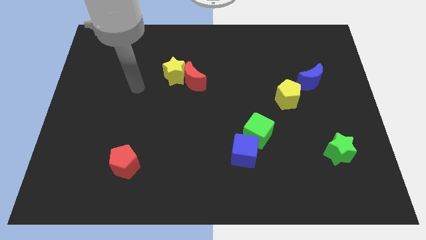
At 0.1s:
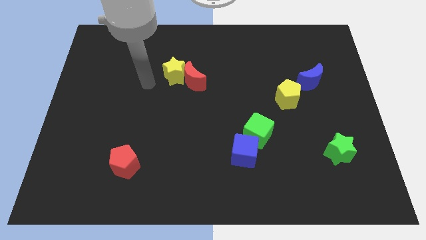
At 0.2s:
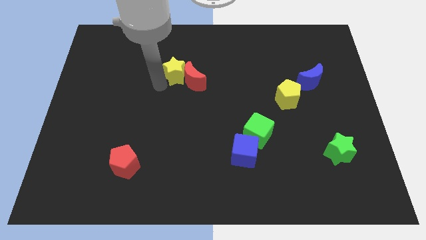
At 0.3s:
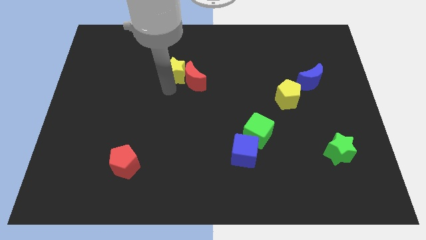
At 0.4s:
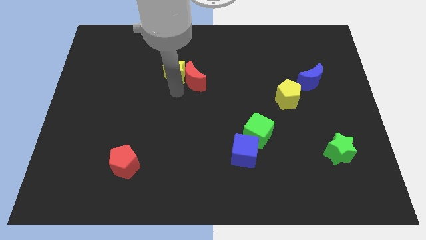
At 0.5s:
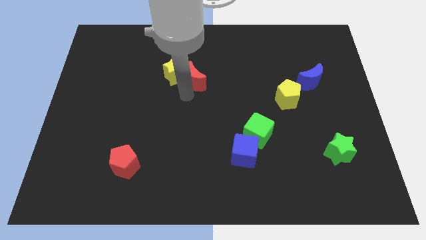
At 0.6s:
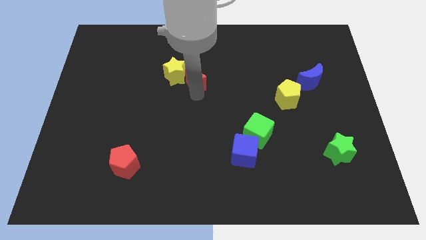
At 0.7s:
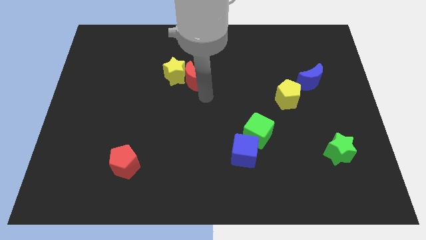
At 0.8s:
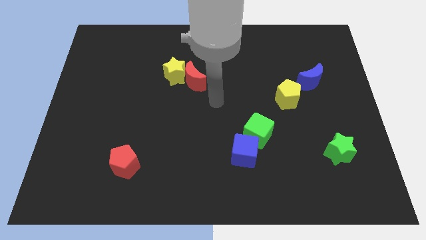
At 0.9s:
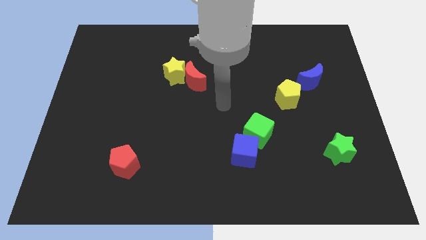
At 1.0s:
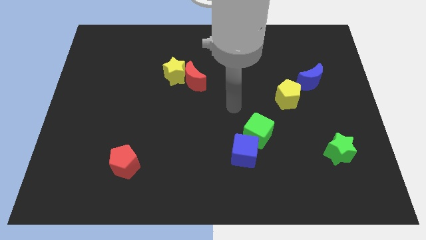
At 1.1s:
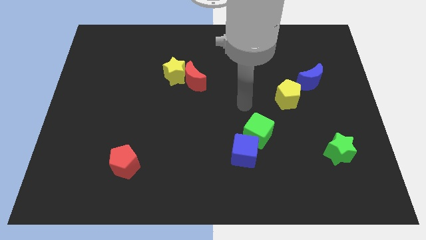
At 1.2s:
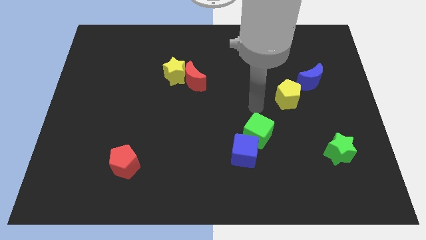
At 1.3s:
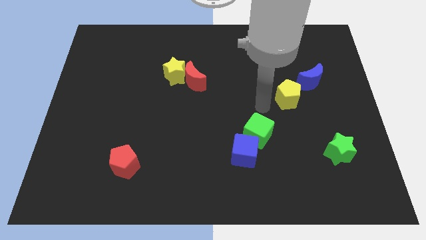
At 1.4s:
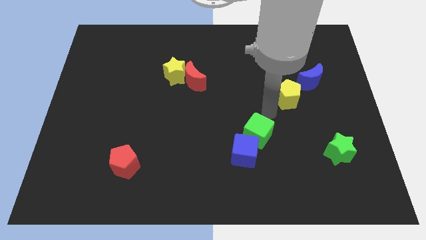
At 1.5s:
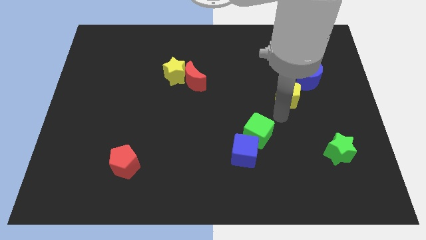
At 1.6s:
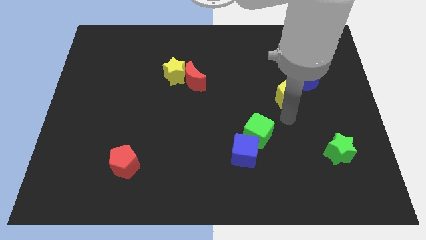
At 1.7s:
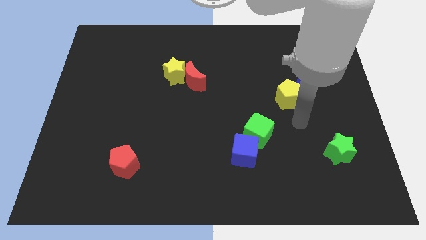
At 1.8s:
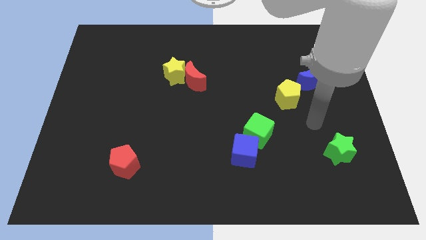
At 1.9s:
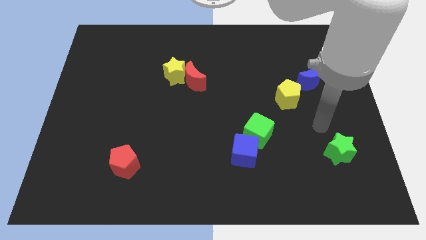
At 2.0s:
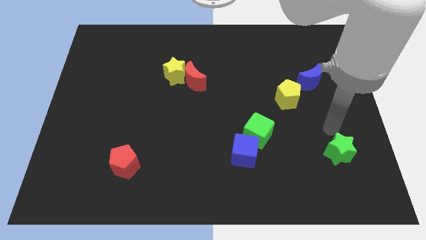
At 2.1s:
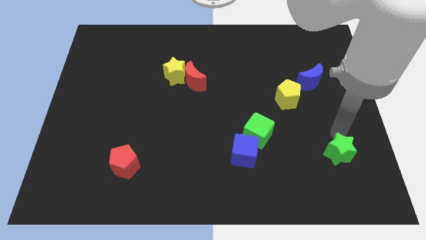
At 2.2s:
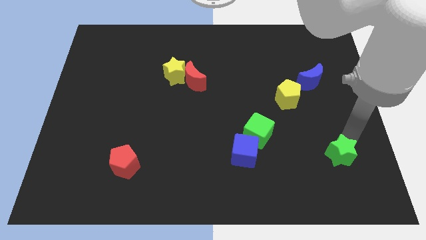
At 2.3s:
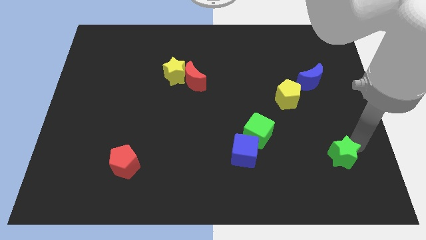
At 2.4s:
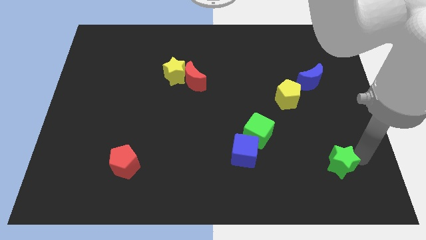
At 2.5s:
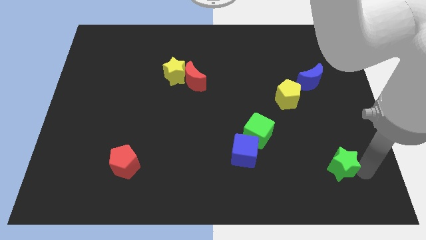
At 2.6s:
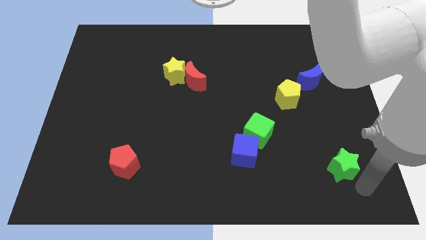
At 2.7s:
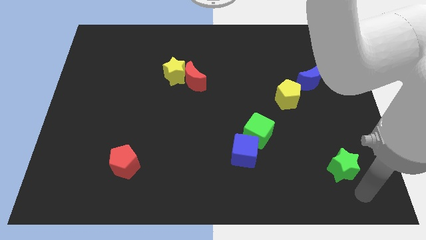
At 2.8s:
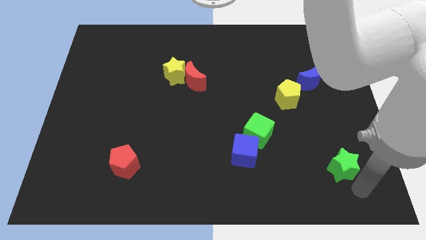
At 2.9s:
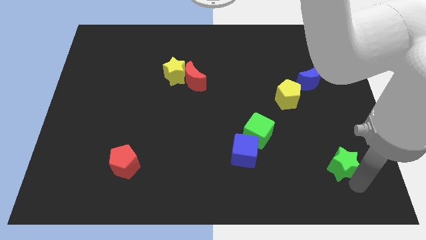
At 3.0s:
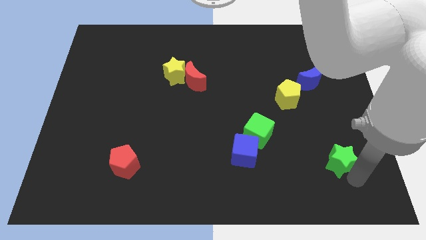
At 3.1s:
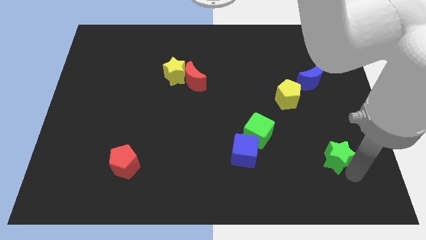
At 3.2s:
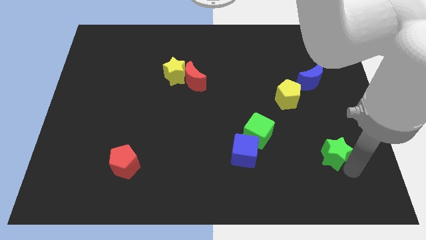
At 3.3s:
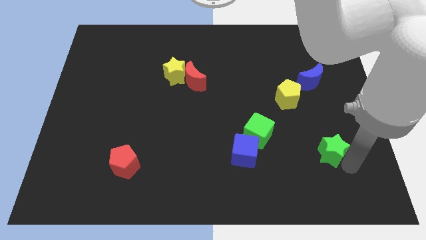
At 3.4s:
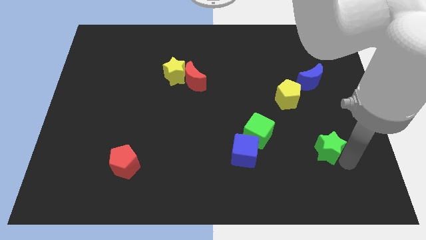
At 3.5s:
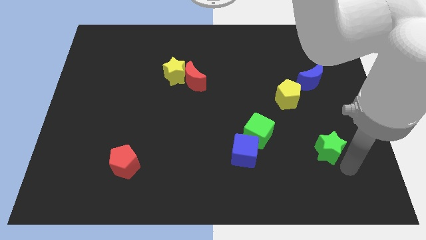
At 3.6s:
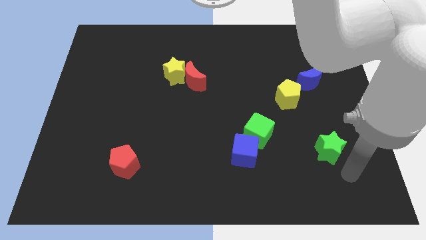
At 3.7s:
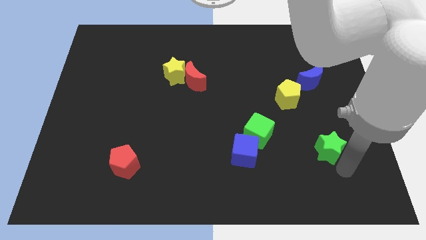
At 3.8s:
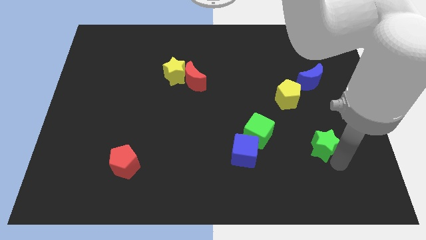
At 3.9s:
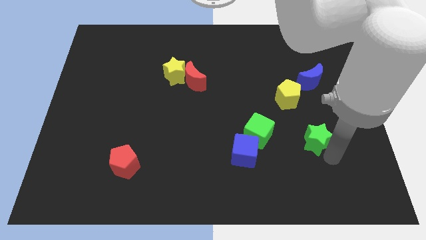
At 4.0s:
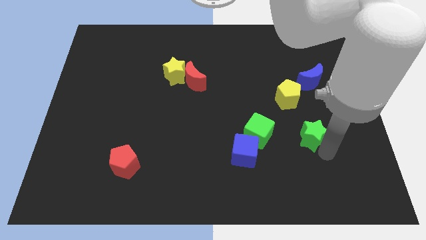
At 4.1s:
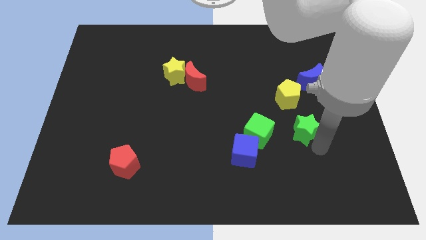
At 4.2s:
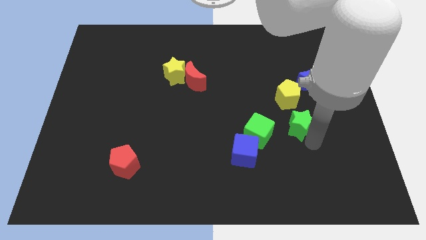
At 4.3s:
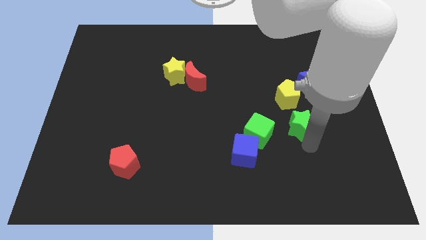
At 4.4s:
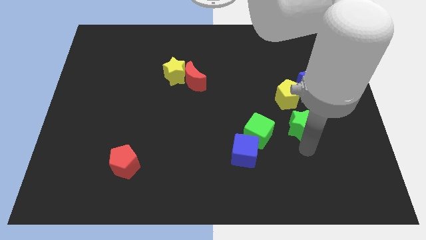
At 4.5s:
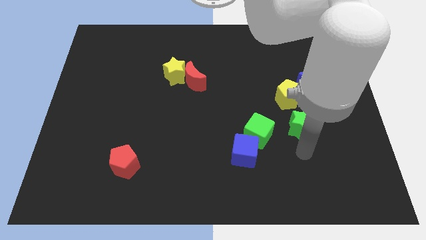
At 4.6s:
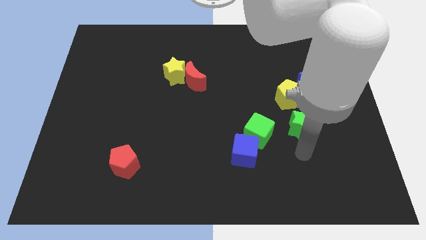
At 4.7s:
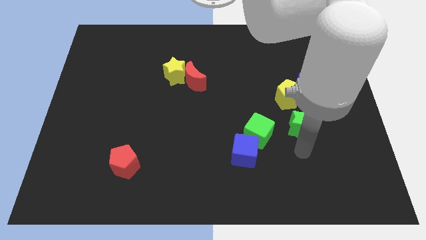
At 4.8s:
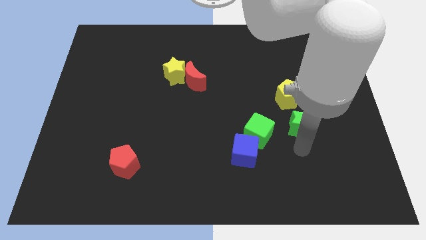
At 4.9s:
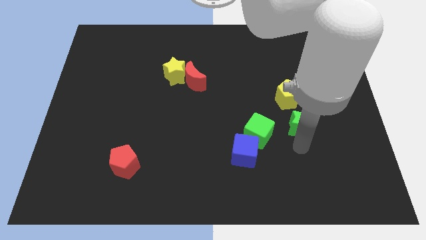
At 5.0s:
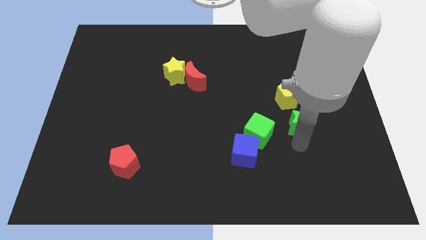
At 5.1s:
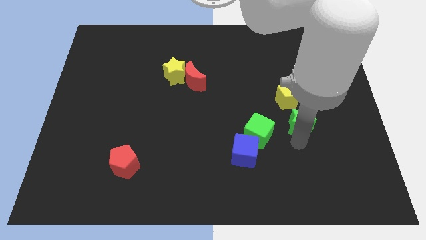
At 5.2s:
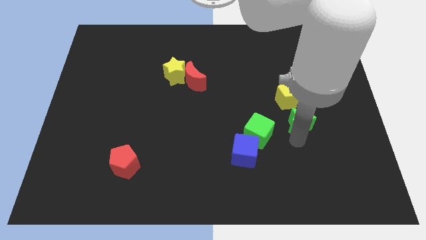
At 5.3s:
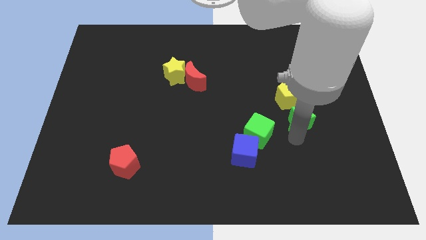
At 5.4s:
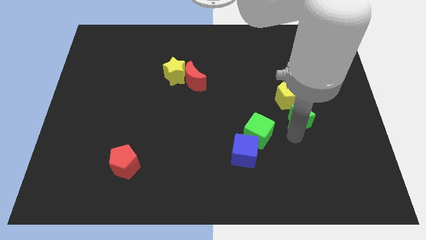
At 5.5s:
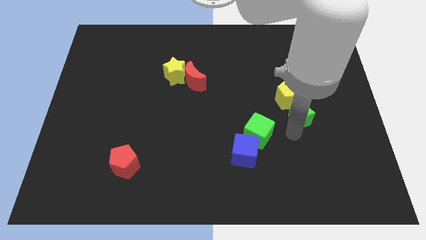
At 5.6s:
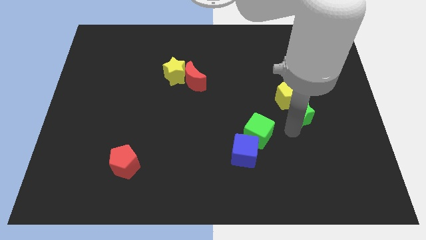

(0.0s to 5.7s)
slide the green star next to the yellow pentagon
